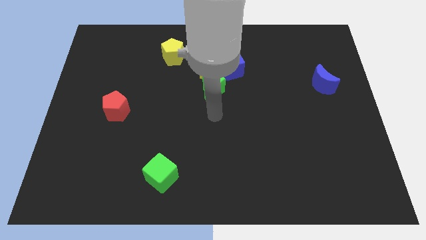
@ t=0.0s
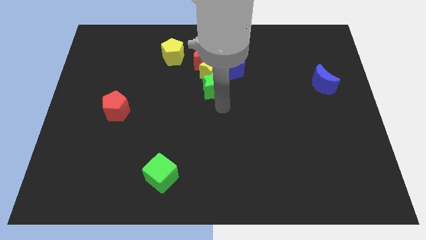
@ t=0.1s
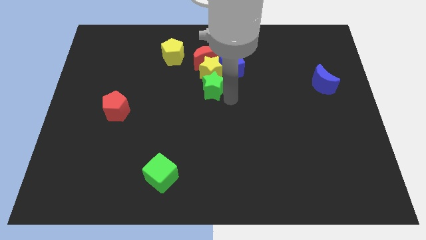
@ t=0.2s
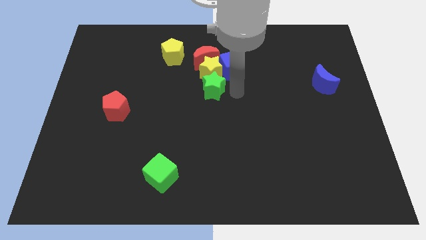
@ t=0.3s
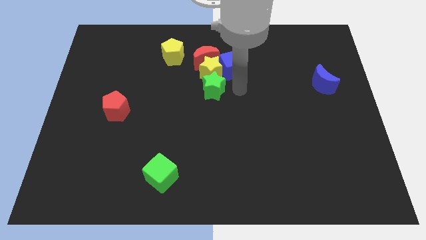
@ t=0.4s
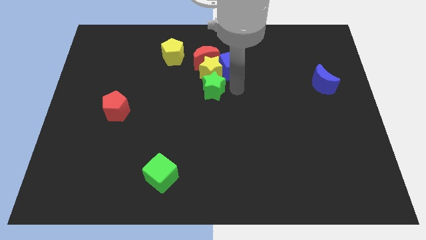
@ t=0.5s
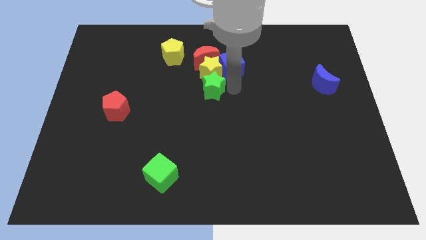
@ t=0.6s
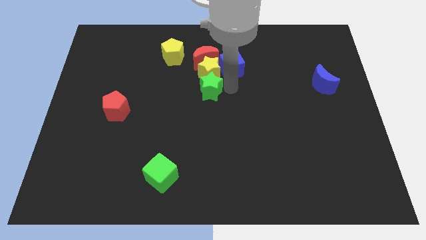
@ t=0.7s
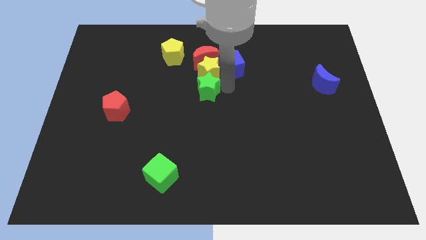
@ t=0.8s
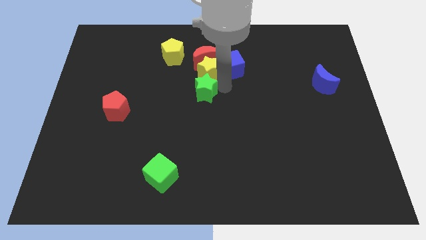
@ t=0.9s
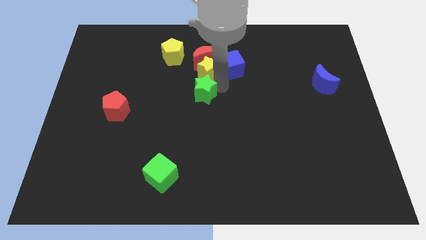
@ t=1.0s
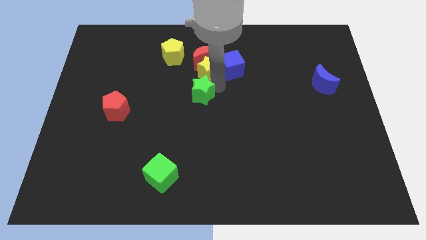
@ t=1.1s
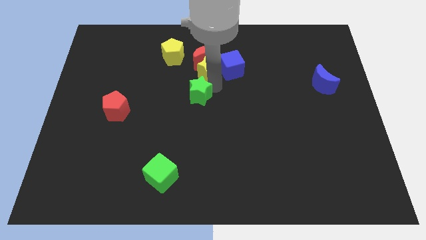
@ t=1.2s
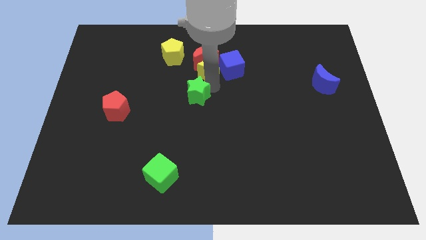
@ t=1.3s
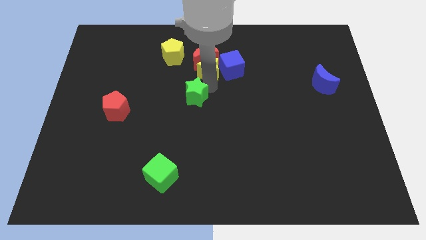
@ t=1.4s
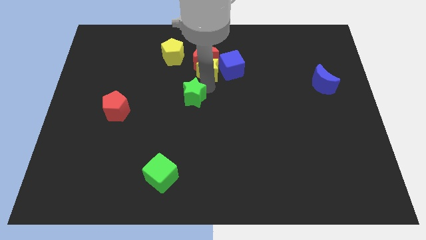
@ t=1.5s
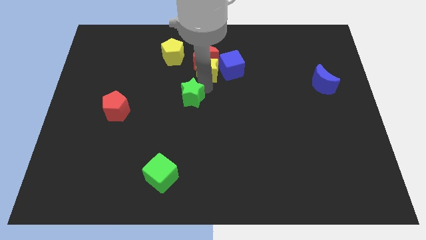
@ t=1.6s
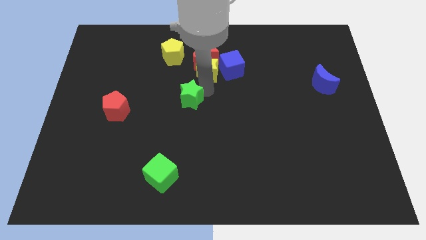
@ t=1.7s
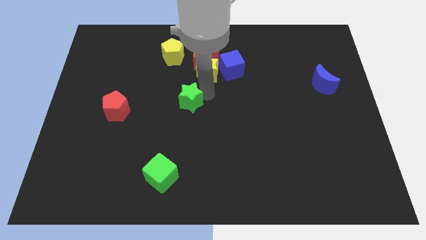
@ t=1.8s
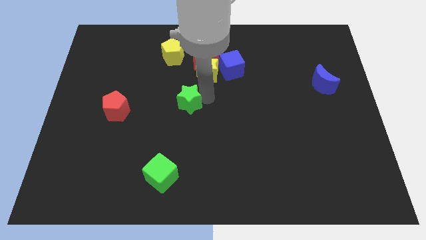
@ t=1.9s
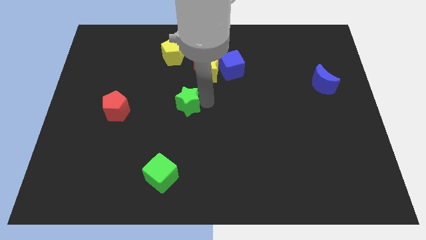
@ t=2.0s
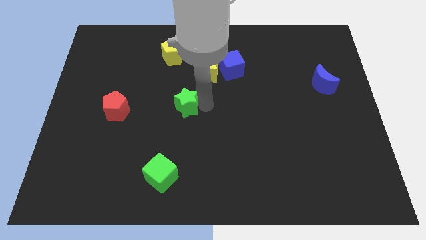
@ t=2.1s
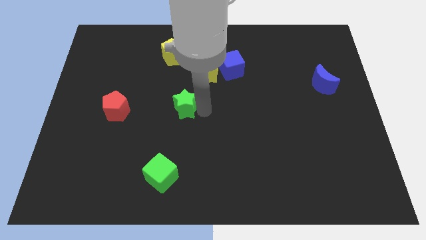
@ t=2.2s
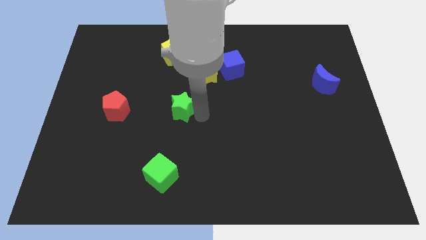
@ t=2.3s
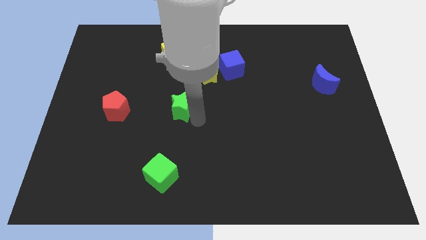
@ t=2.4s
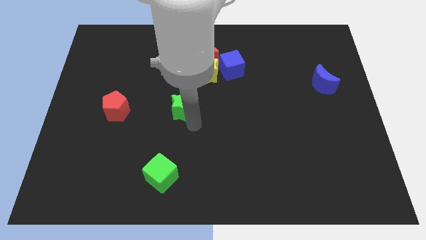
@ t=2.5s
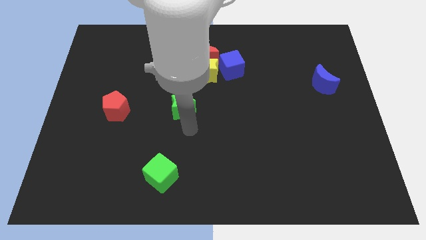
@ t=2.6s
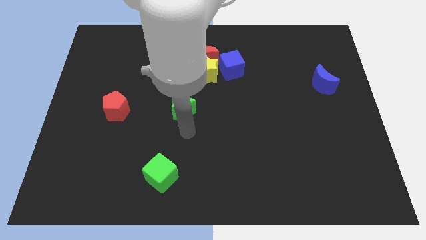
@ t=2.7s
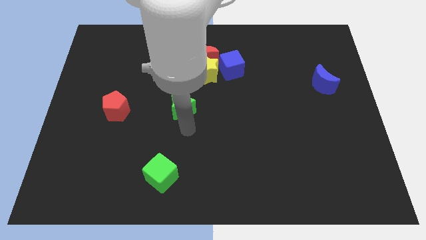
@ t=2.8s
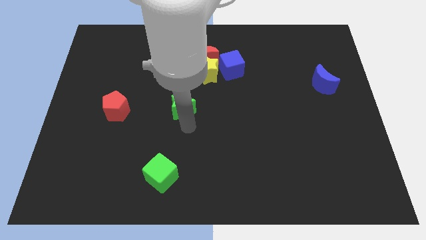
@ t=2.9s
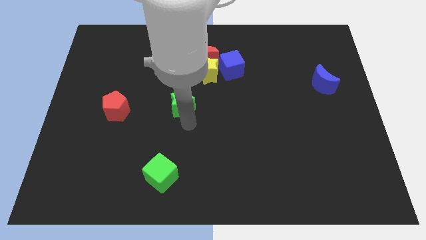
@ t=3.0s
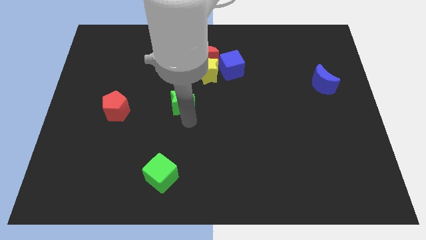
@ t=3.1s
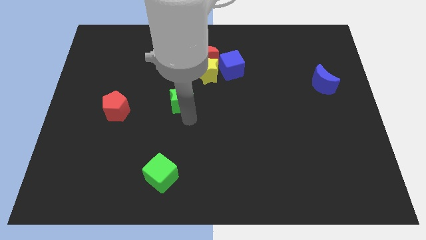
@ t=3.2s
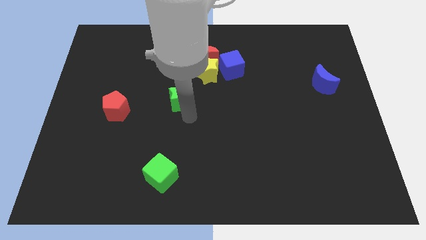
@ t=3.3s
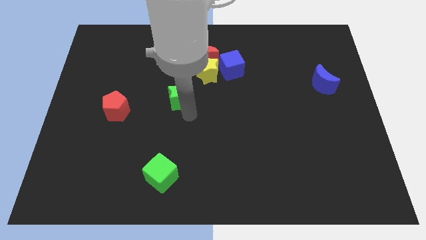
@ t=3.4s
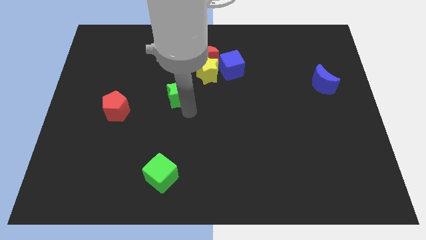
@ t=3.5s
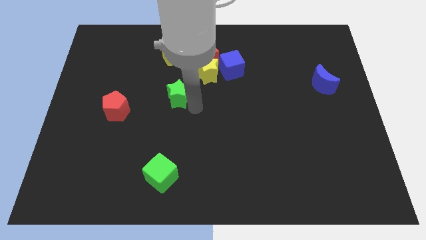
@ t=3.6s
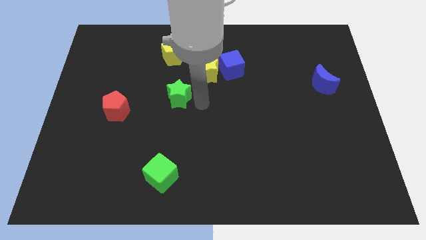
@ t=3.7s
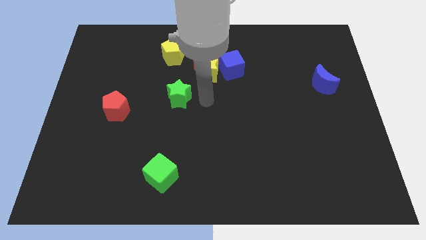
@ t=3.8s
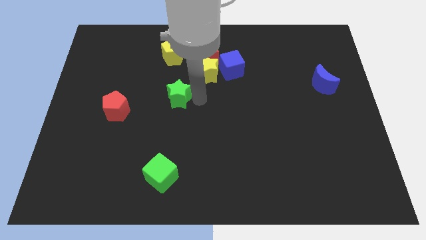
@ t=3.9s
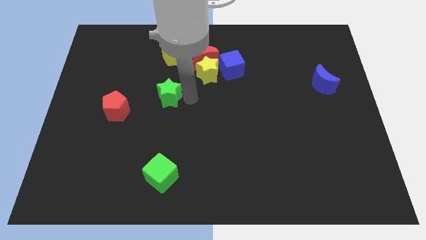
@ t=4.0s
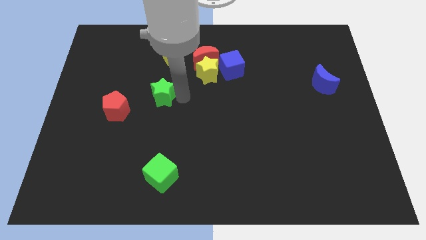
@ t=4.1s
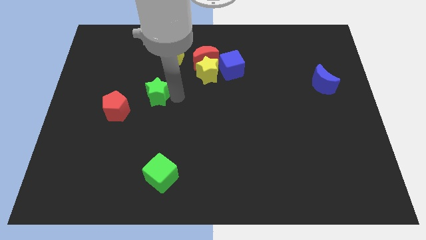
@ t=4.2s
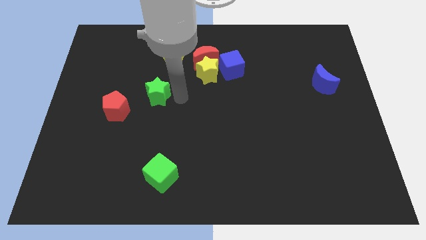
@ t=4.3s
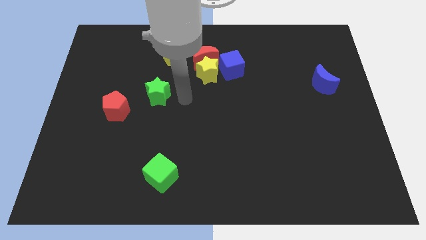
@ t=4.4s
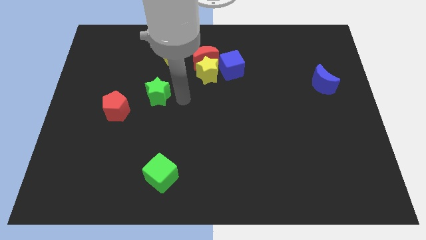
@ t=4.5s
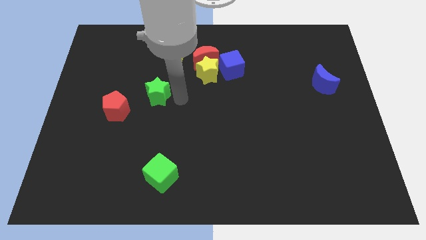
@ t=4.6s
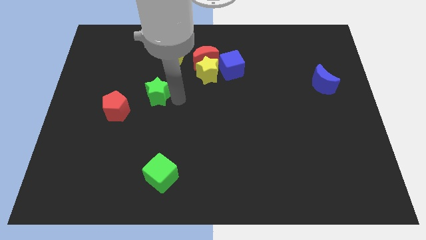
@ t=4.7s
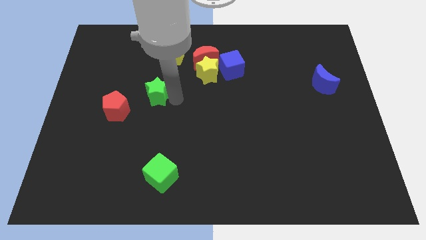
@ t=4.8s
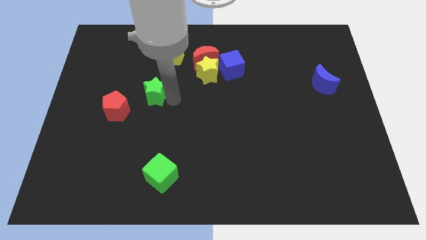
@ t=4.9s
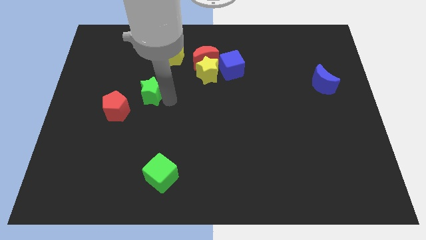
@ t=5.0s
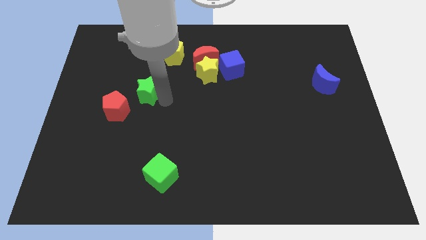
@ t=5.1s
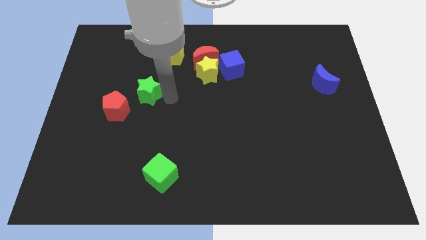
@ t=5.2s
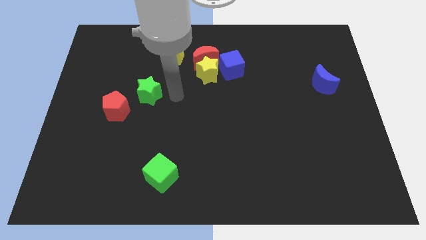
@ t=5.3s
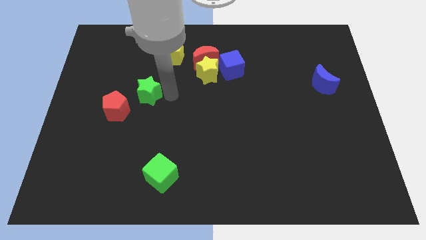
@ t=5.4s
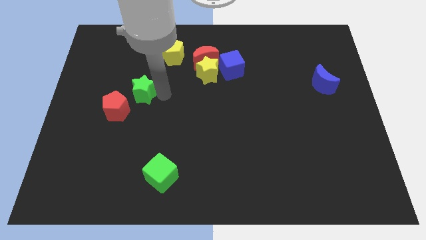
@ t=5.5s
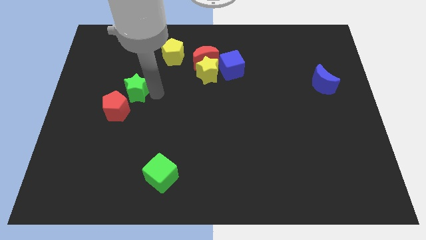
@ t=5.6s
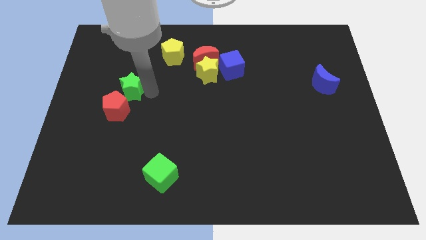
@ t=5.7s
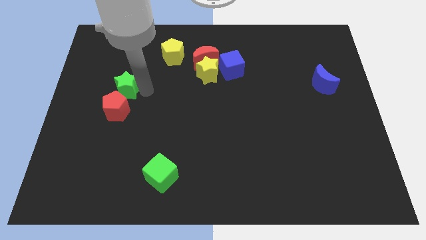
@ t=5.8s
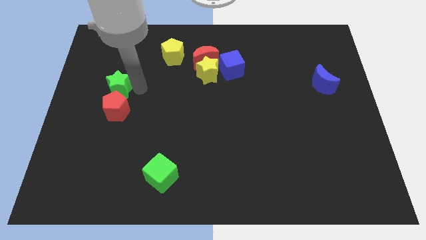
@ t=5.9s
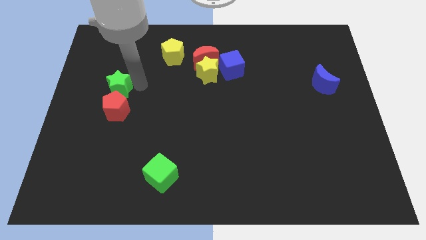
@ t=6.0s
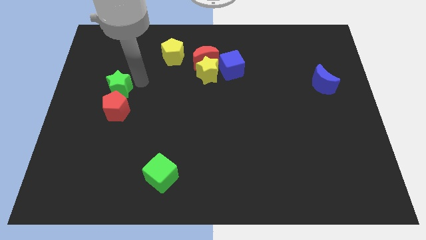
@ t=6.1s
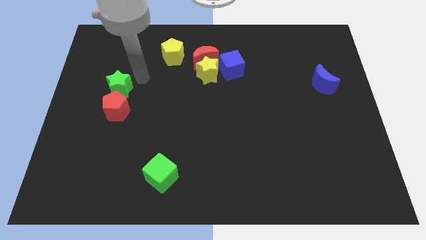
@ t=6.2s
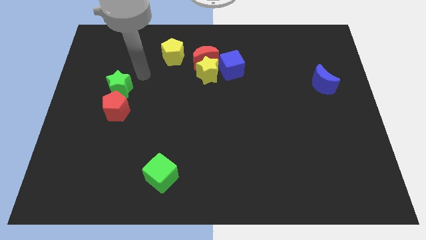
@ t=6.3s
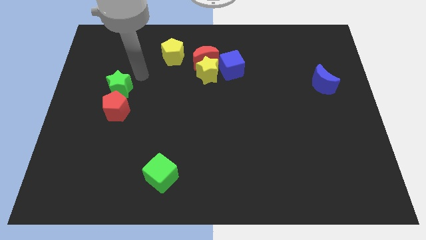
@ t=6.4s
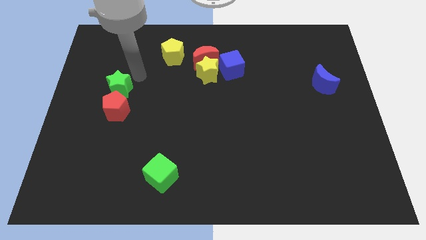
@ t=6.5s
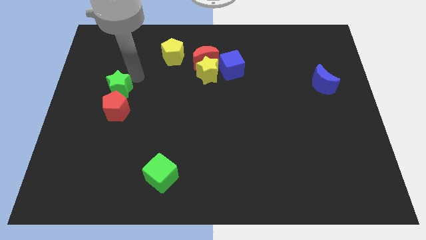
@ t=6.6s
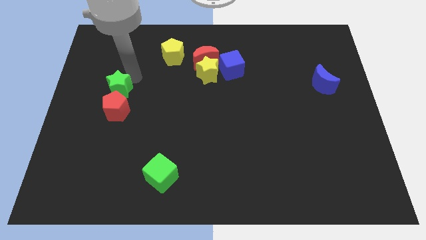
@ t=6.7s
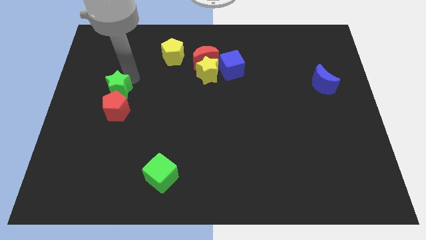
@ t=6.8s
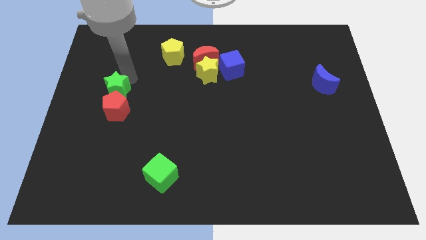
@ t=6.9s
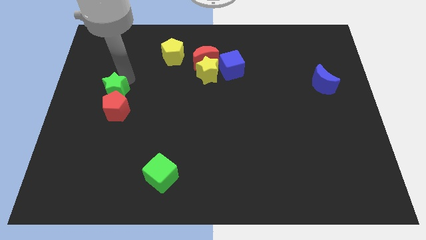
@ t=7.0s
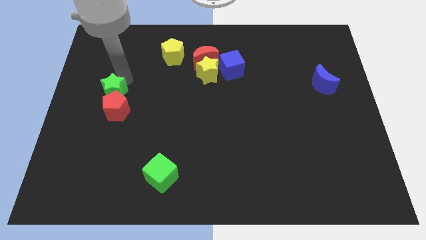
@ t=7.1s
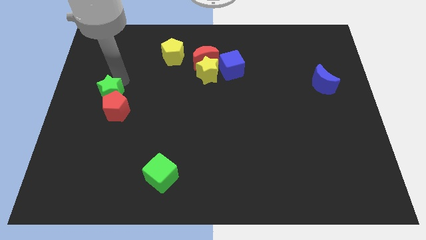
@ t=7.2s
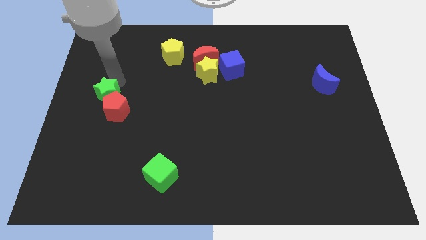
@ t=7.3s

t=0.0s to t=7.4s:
move the green star to the left side of the board
